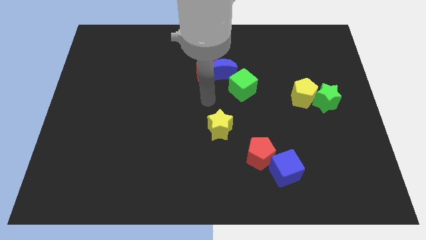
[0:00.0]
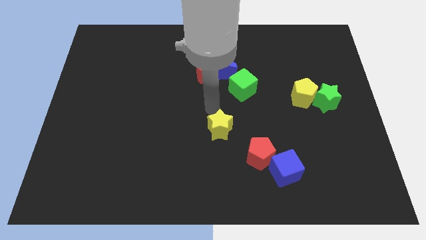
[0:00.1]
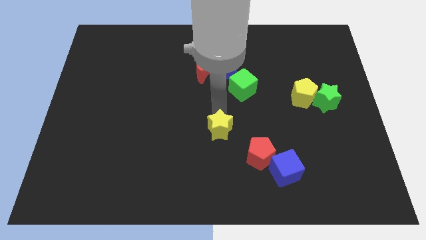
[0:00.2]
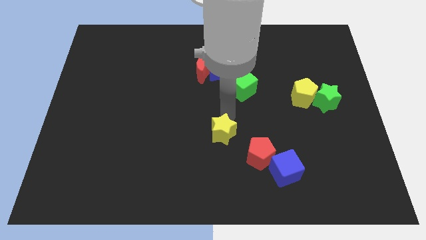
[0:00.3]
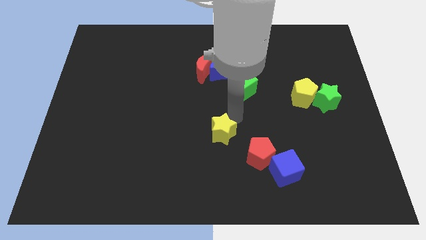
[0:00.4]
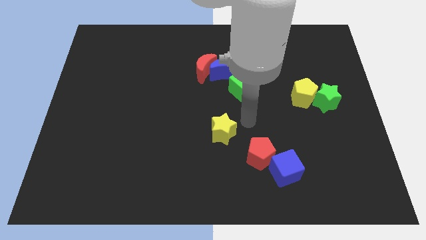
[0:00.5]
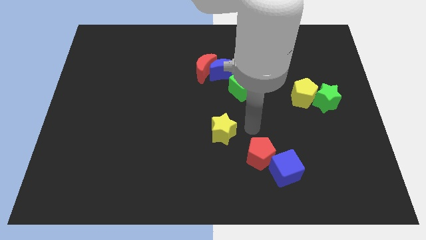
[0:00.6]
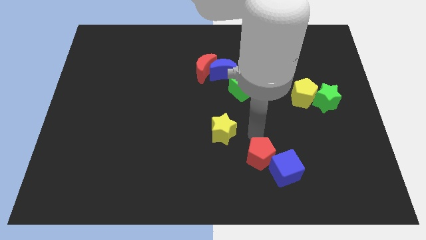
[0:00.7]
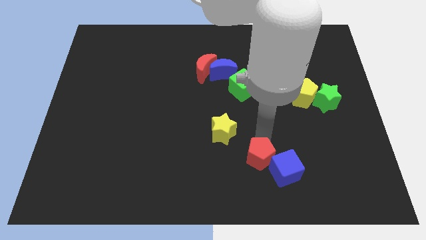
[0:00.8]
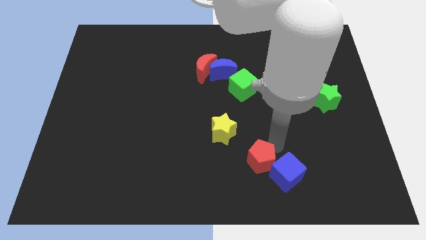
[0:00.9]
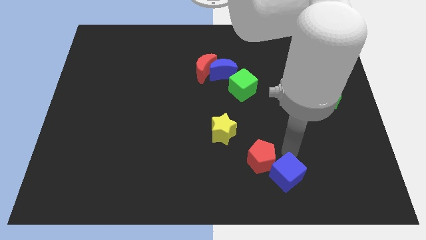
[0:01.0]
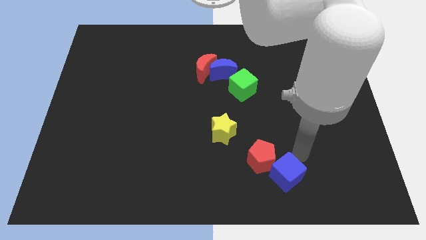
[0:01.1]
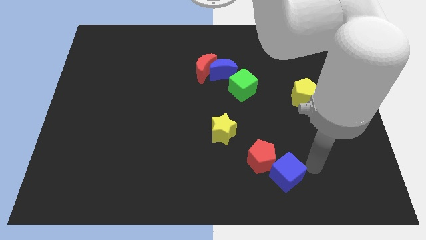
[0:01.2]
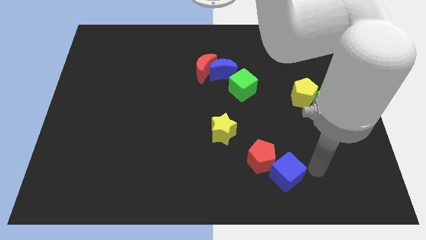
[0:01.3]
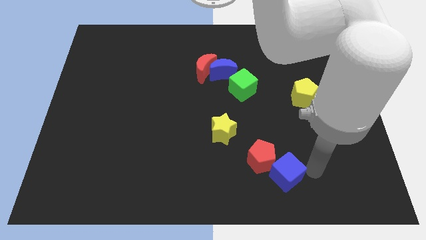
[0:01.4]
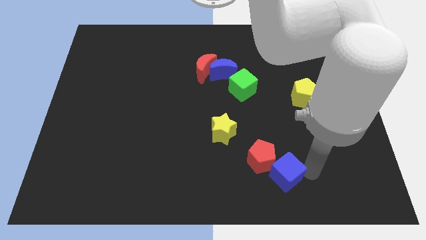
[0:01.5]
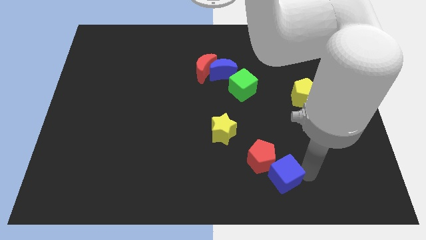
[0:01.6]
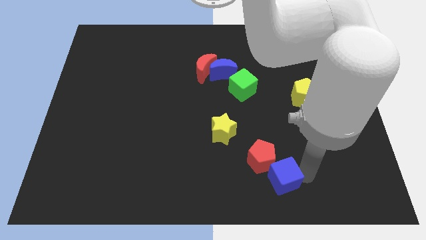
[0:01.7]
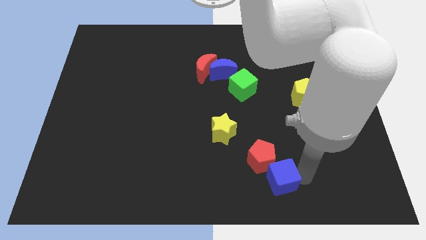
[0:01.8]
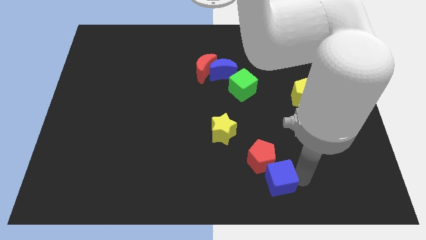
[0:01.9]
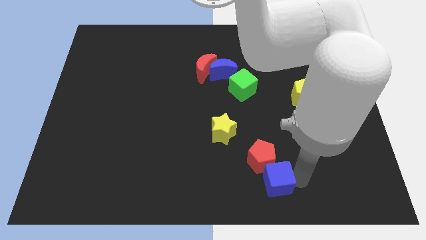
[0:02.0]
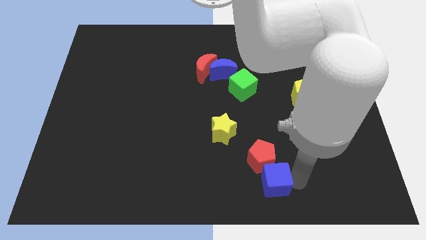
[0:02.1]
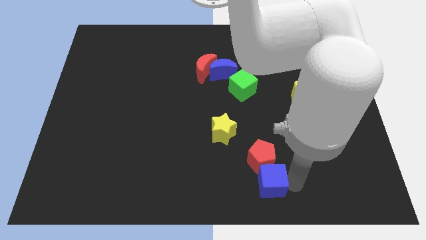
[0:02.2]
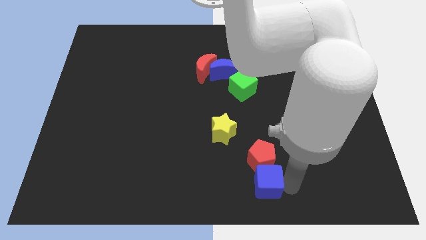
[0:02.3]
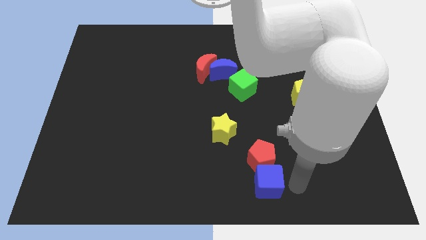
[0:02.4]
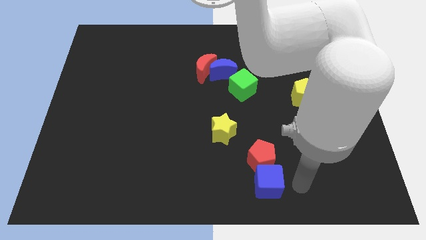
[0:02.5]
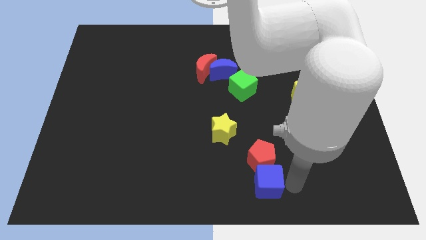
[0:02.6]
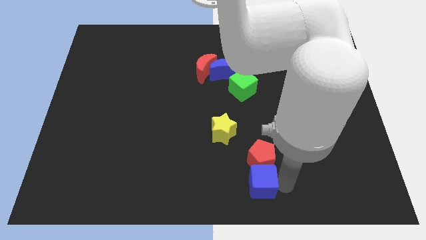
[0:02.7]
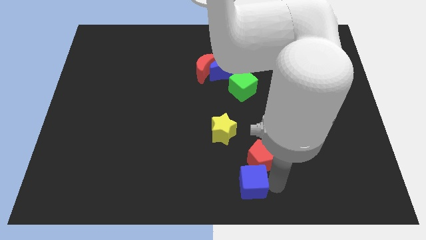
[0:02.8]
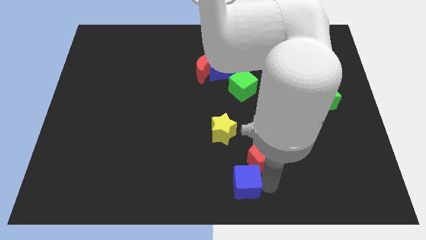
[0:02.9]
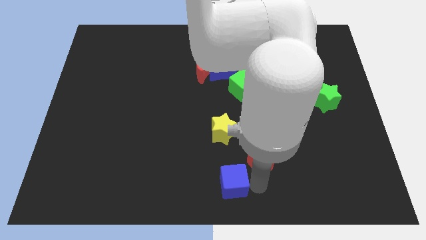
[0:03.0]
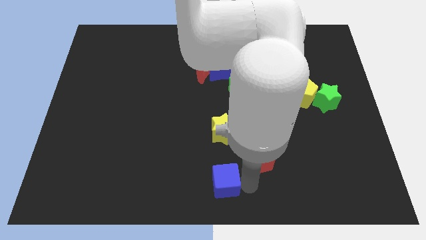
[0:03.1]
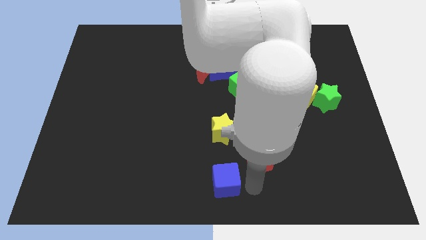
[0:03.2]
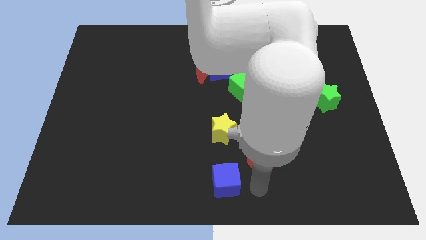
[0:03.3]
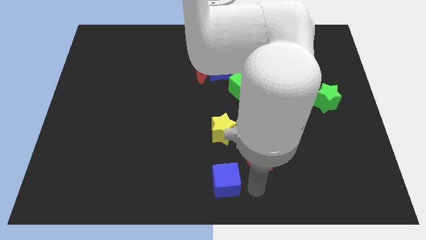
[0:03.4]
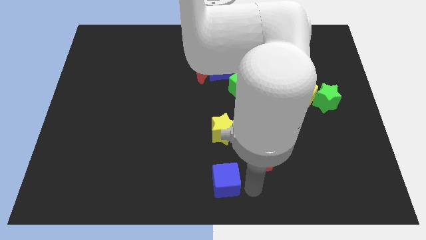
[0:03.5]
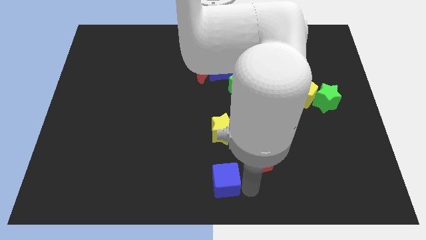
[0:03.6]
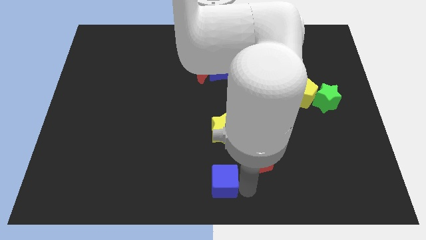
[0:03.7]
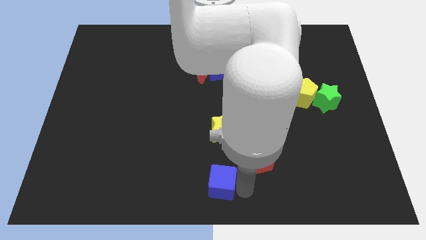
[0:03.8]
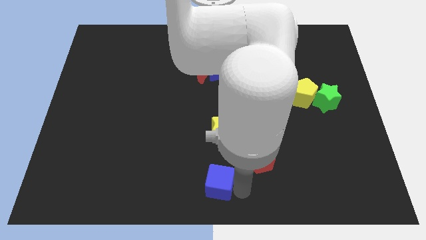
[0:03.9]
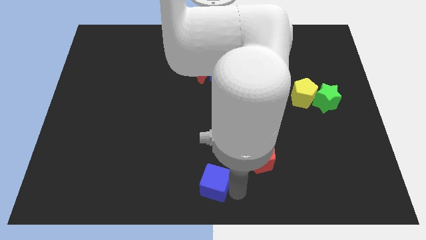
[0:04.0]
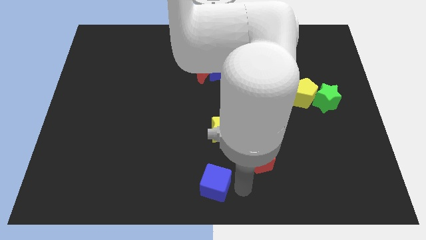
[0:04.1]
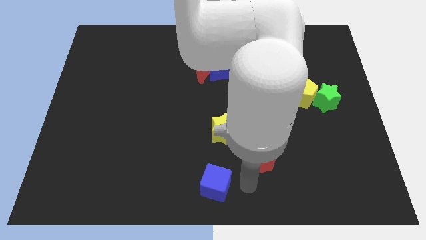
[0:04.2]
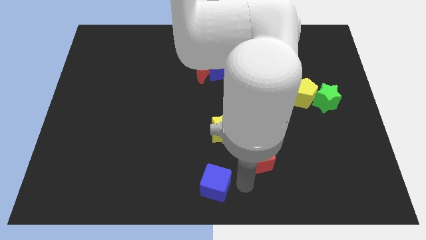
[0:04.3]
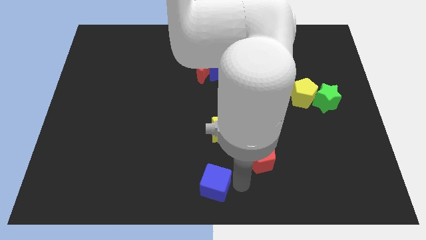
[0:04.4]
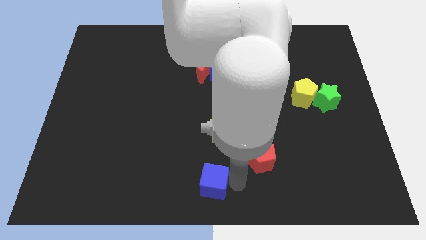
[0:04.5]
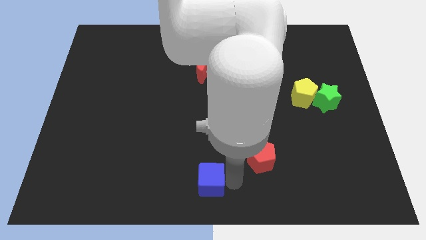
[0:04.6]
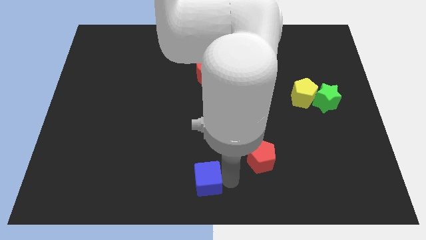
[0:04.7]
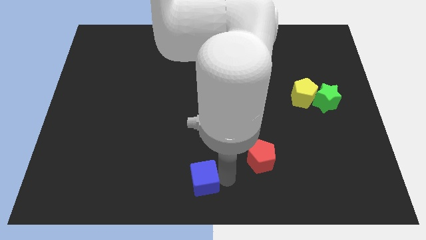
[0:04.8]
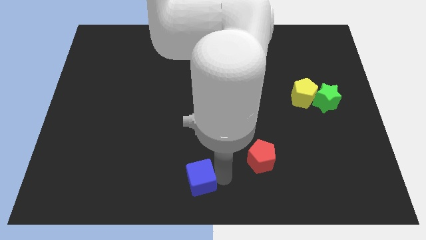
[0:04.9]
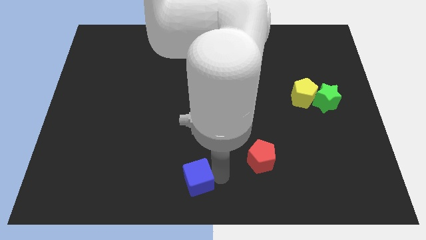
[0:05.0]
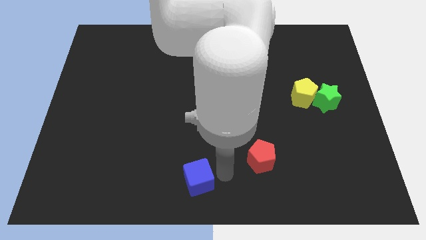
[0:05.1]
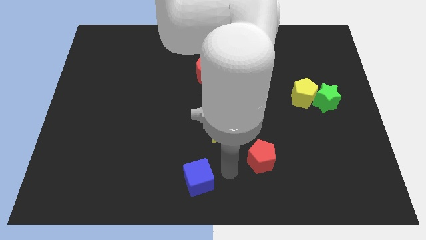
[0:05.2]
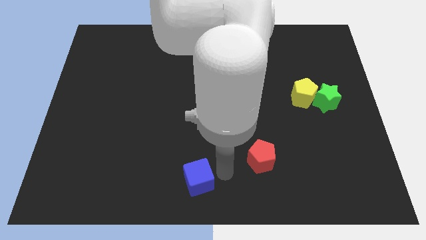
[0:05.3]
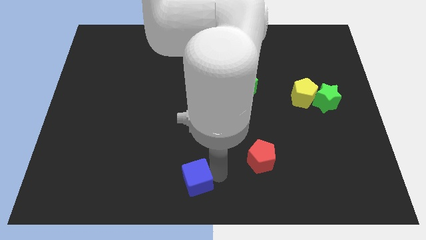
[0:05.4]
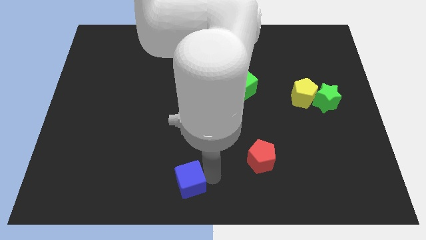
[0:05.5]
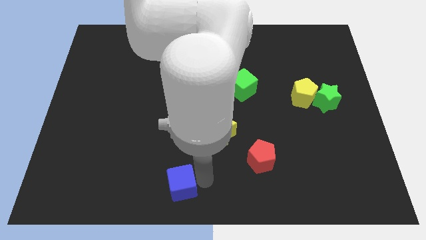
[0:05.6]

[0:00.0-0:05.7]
move the blue cube left

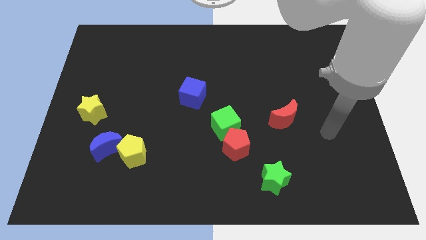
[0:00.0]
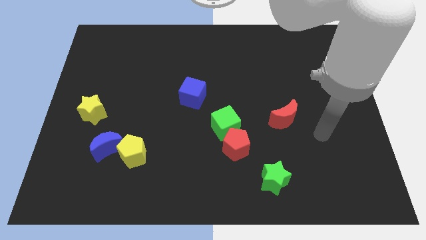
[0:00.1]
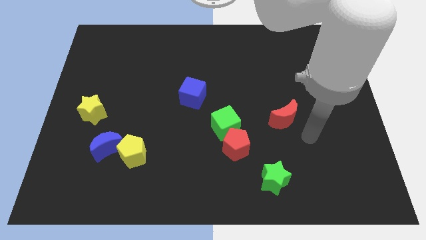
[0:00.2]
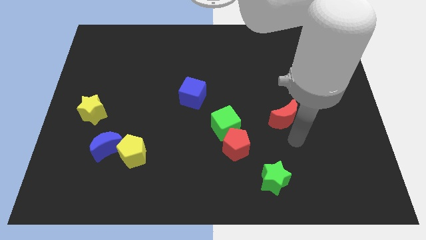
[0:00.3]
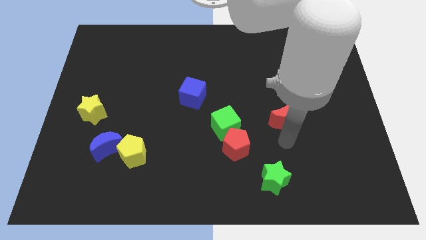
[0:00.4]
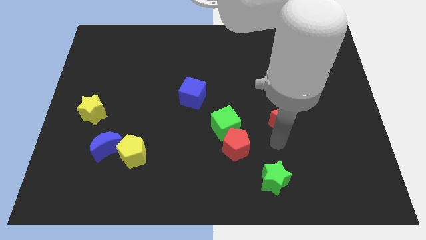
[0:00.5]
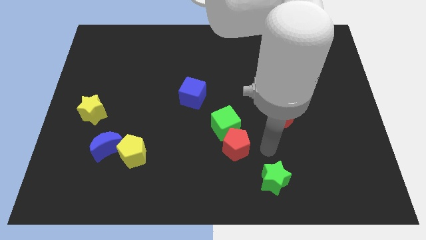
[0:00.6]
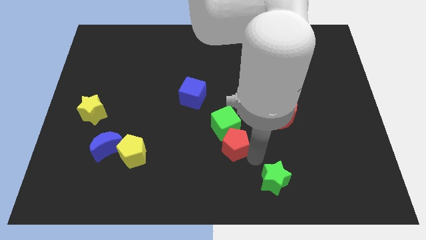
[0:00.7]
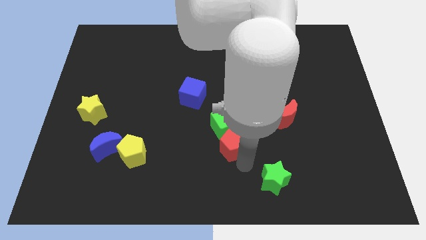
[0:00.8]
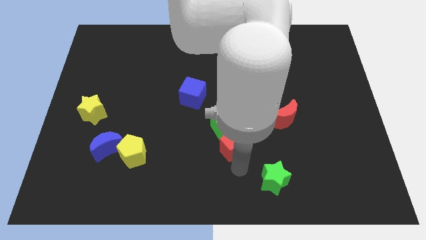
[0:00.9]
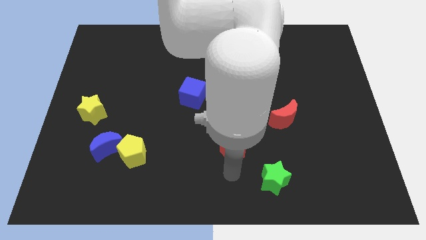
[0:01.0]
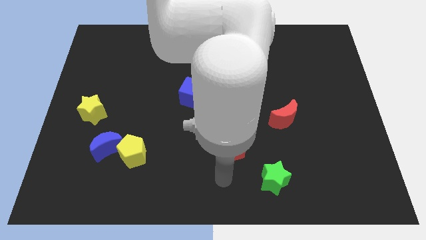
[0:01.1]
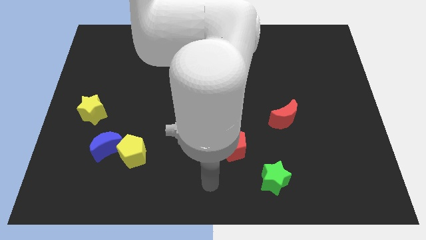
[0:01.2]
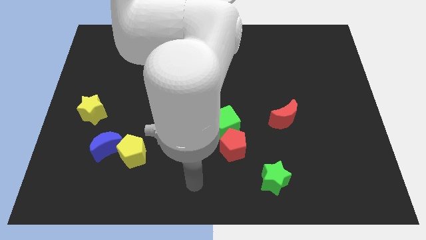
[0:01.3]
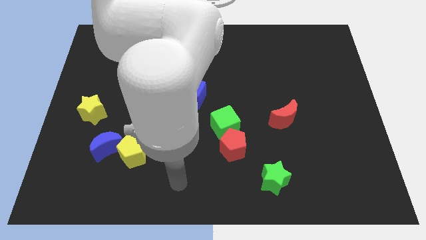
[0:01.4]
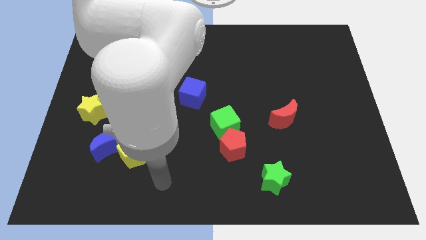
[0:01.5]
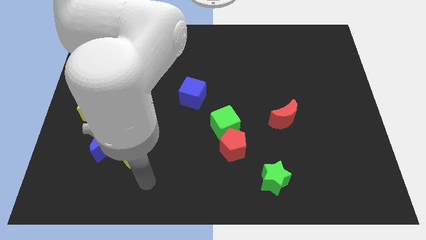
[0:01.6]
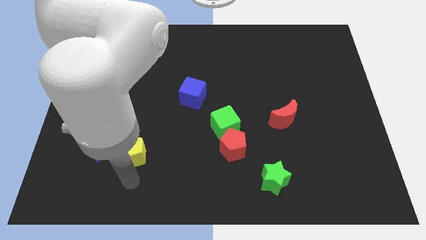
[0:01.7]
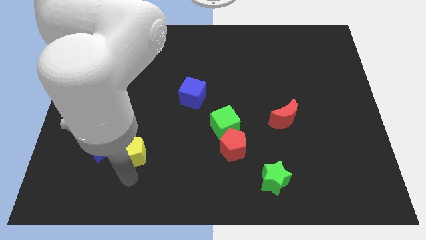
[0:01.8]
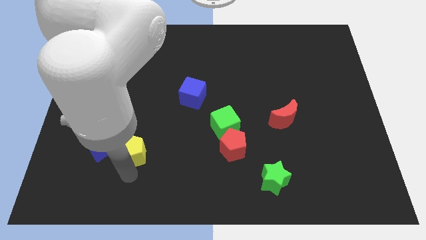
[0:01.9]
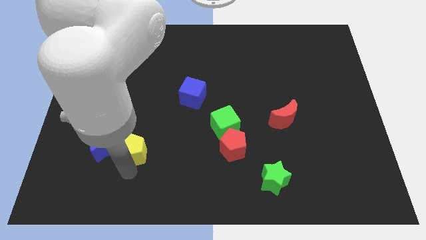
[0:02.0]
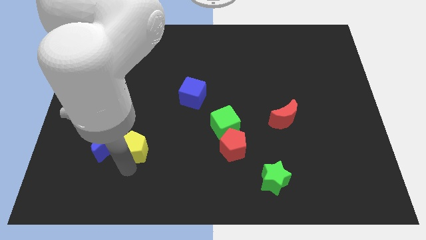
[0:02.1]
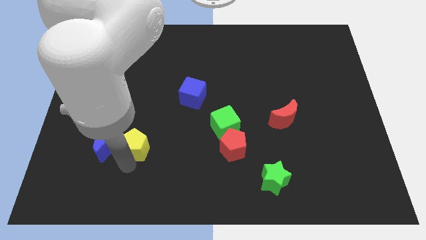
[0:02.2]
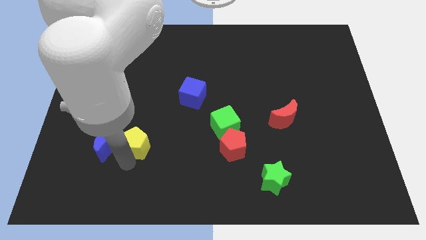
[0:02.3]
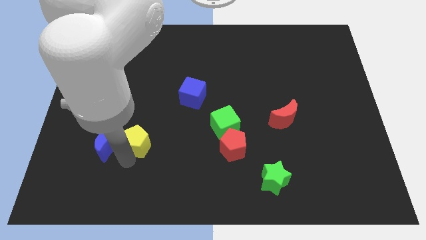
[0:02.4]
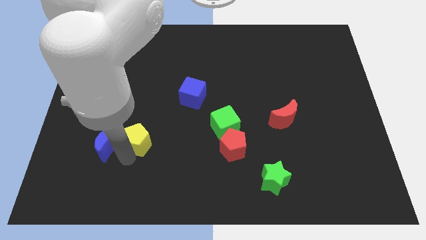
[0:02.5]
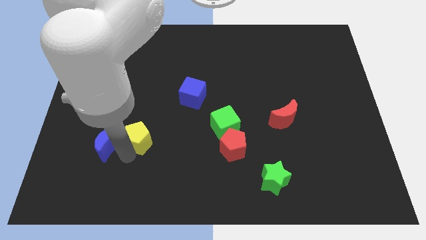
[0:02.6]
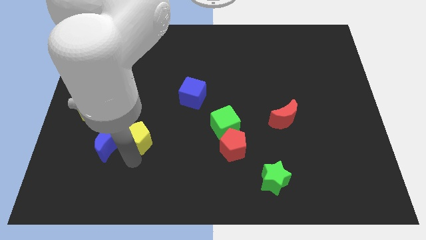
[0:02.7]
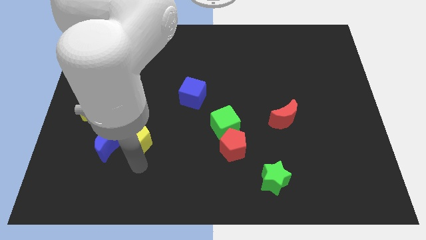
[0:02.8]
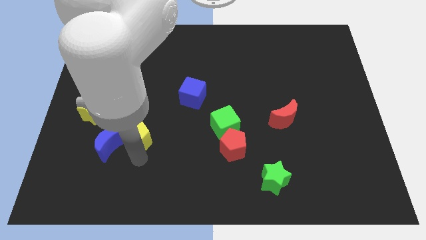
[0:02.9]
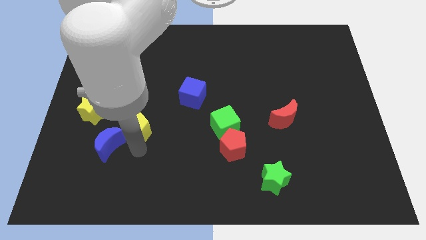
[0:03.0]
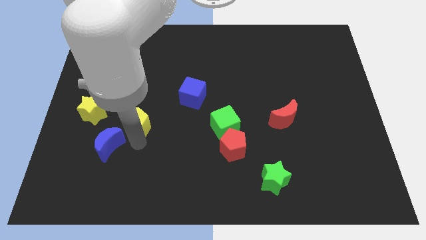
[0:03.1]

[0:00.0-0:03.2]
slightly move the yellow pentagon upwards
